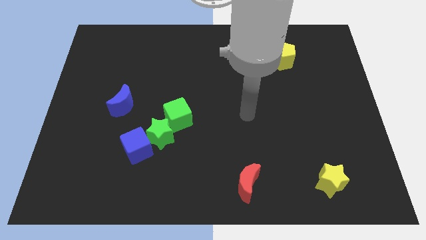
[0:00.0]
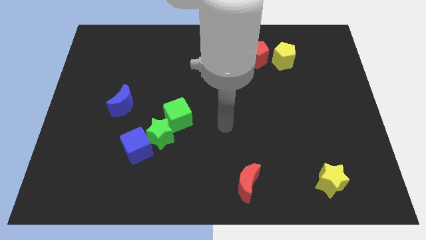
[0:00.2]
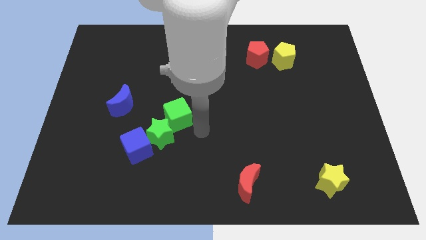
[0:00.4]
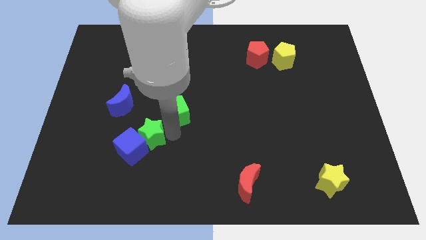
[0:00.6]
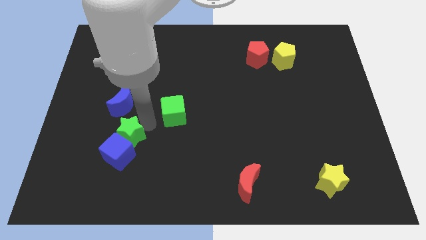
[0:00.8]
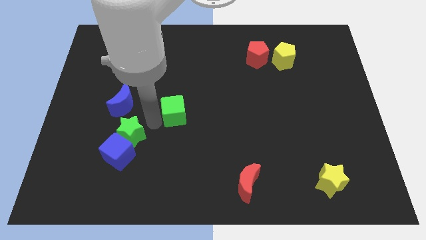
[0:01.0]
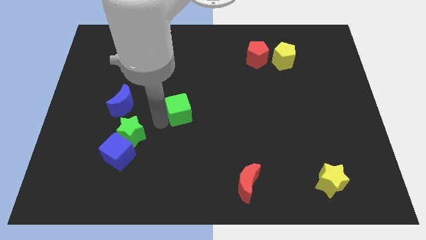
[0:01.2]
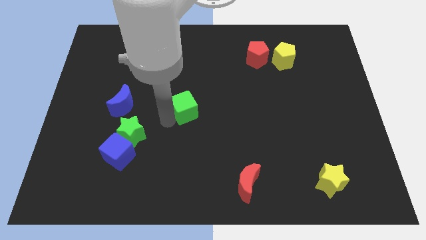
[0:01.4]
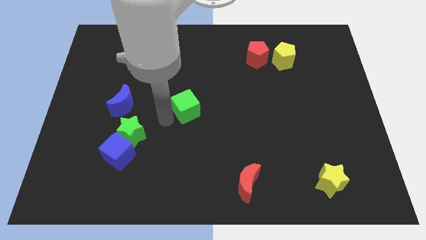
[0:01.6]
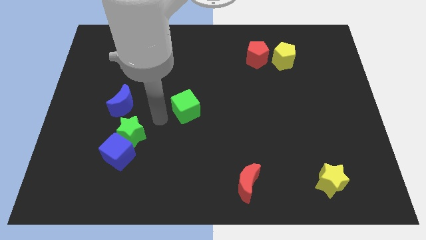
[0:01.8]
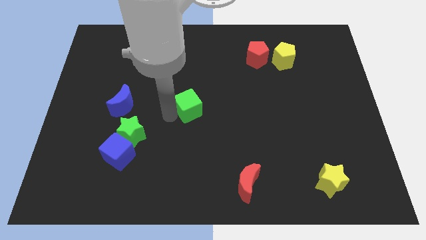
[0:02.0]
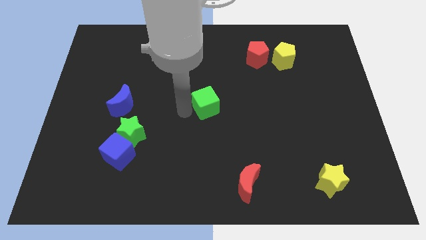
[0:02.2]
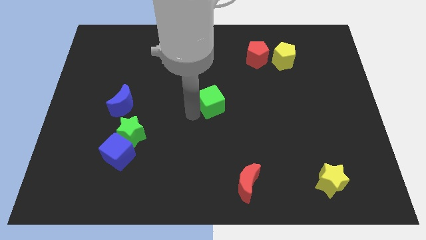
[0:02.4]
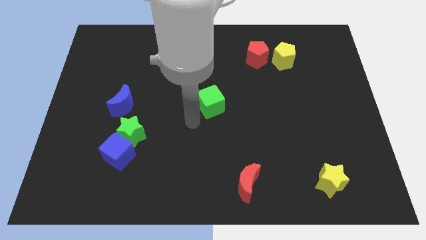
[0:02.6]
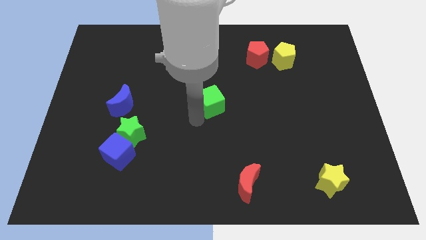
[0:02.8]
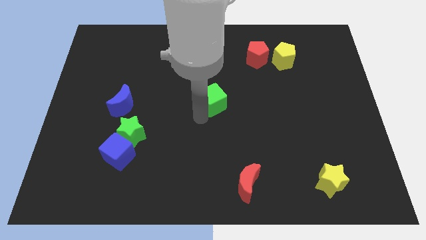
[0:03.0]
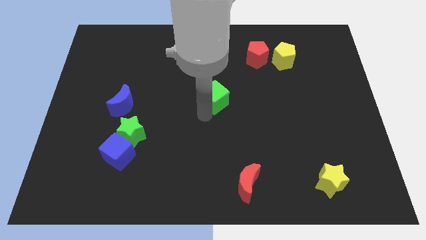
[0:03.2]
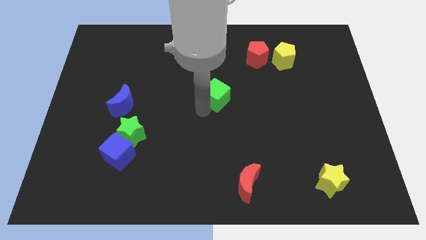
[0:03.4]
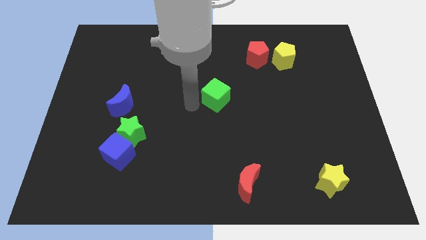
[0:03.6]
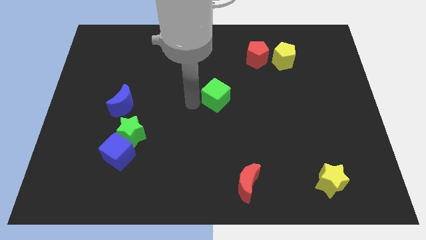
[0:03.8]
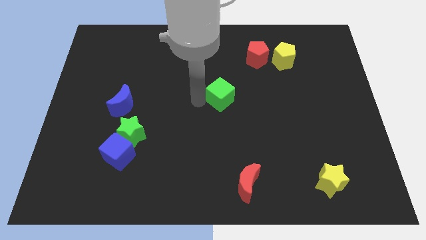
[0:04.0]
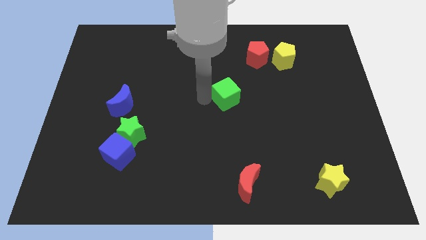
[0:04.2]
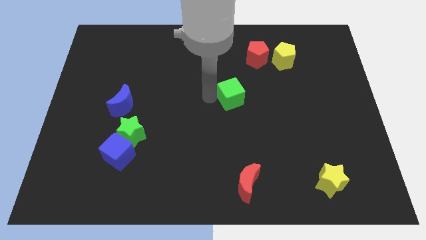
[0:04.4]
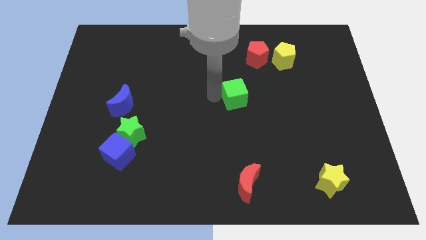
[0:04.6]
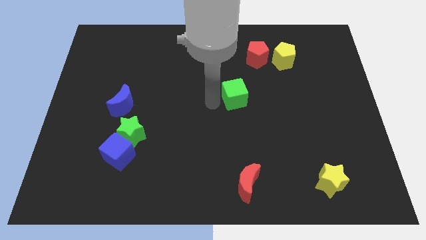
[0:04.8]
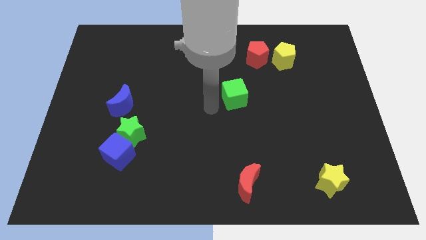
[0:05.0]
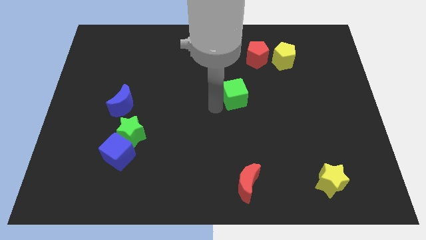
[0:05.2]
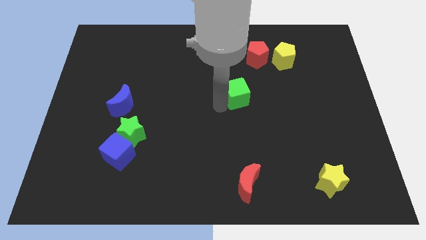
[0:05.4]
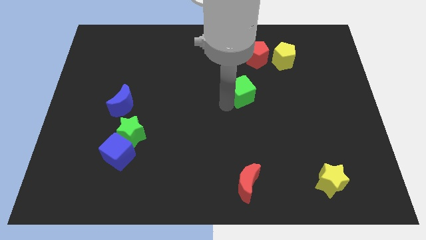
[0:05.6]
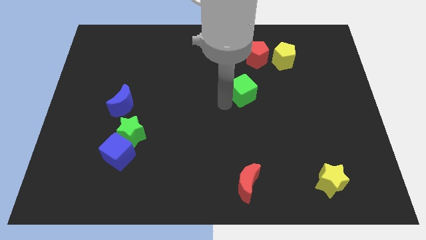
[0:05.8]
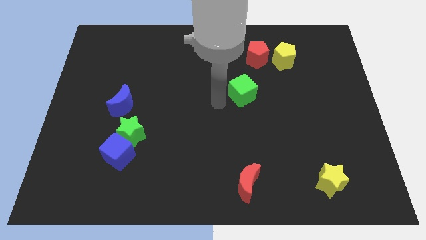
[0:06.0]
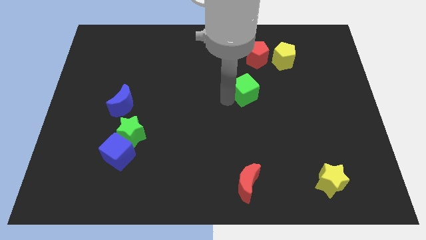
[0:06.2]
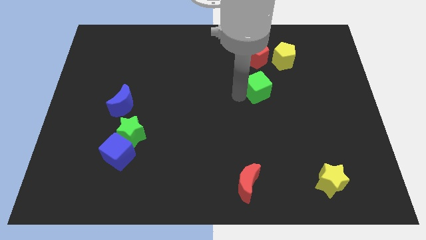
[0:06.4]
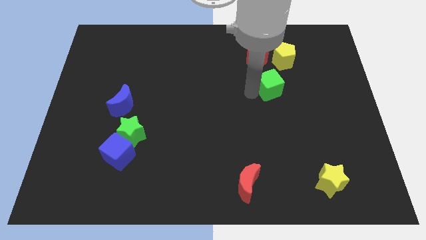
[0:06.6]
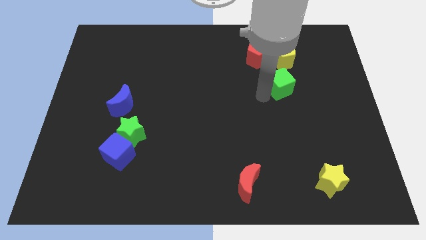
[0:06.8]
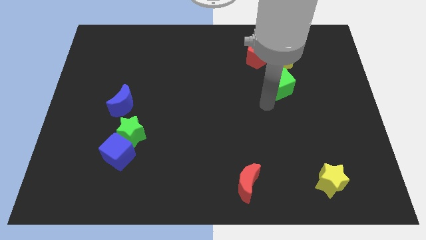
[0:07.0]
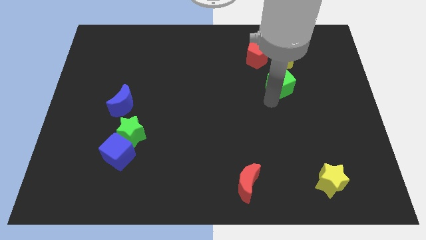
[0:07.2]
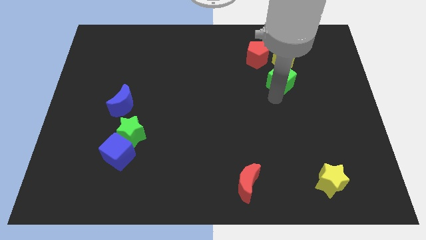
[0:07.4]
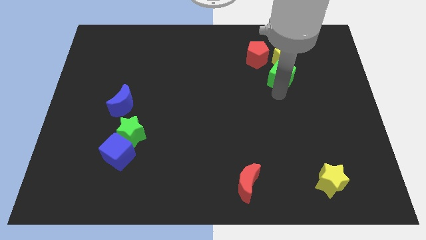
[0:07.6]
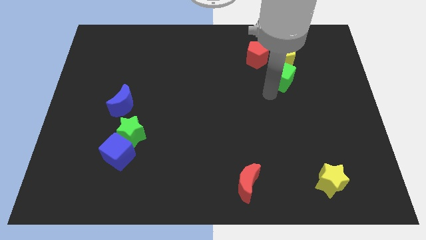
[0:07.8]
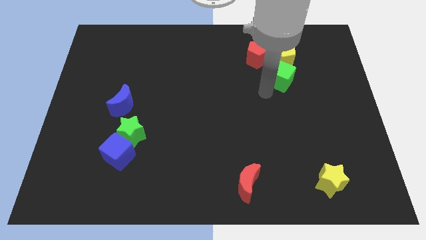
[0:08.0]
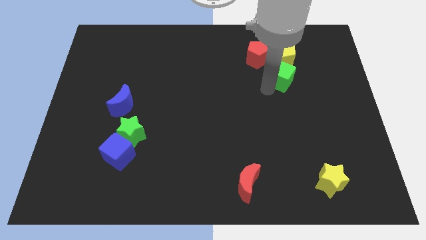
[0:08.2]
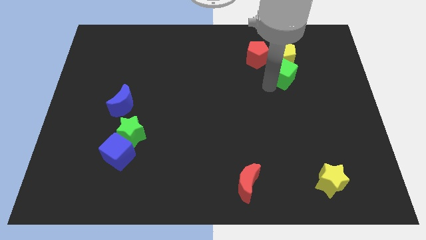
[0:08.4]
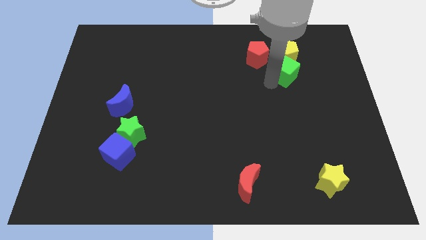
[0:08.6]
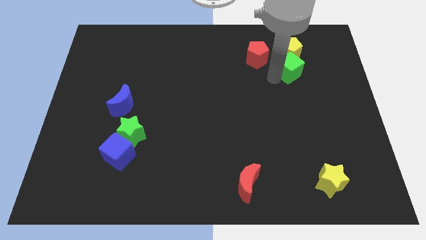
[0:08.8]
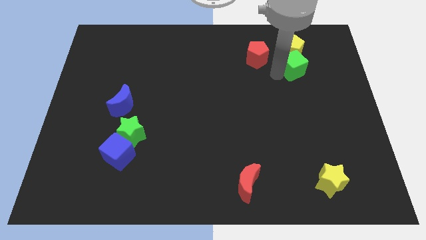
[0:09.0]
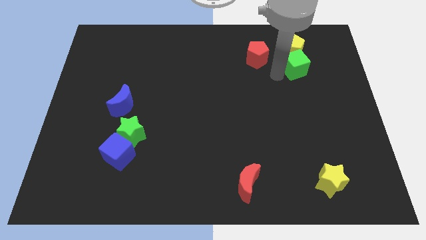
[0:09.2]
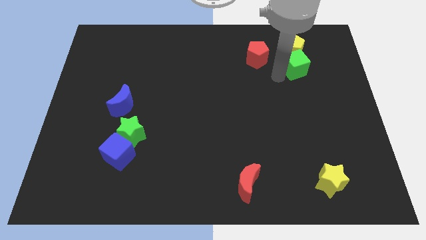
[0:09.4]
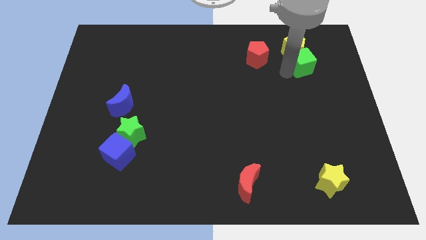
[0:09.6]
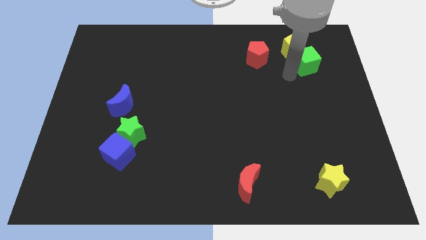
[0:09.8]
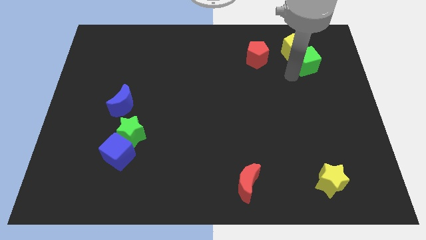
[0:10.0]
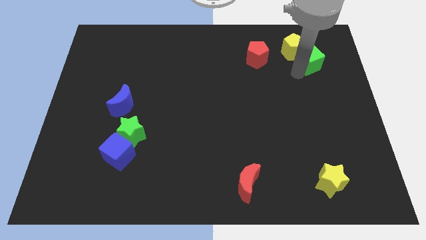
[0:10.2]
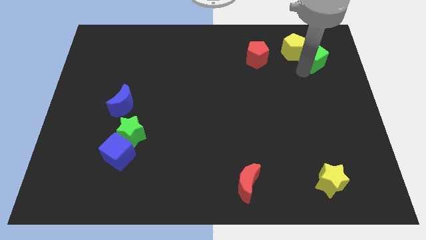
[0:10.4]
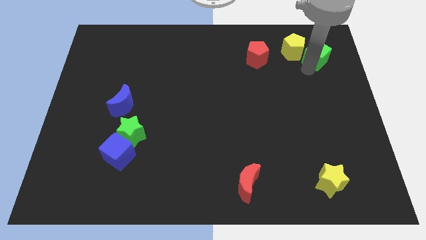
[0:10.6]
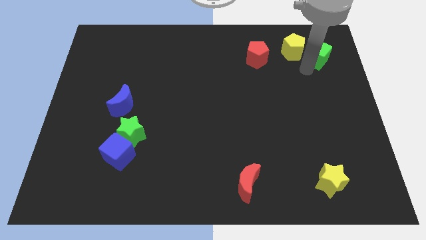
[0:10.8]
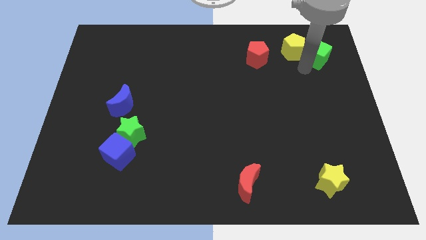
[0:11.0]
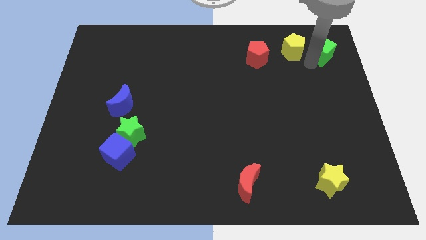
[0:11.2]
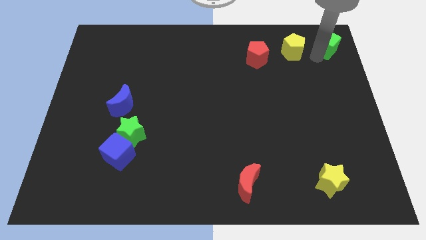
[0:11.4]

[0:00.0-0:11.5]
put the green cube to the top right corner
